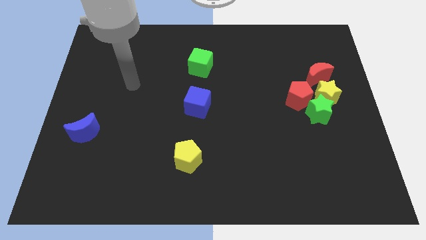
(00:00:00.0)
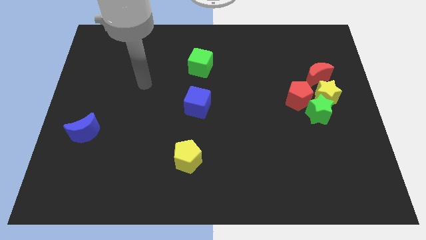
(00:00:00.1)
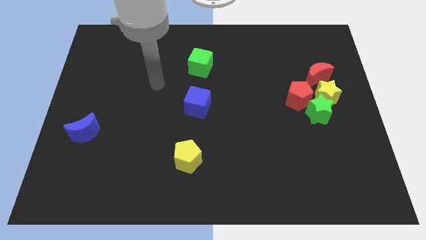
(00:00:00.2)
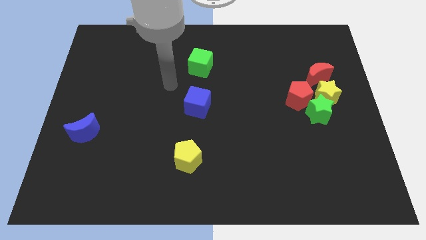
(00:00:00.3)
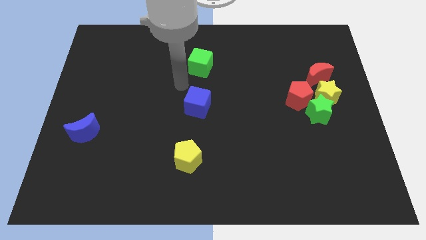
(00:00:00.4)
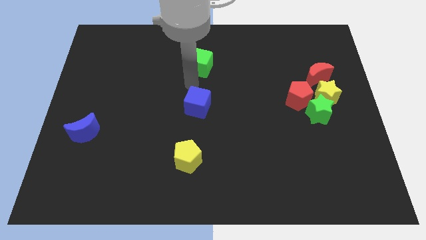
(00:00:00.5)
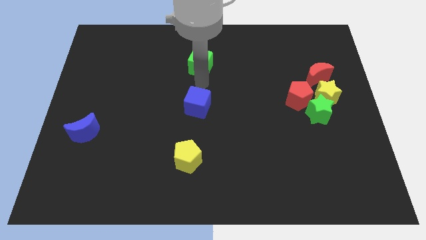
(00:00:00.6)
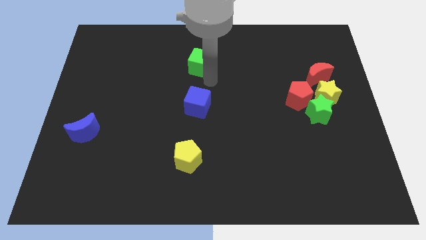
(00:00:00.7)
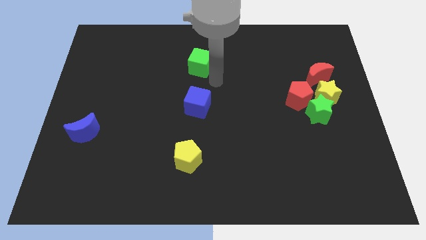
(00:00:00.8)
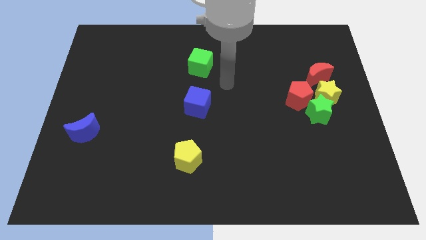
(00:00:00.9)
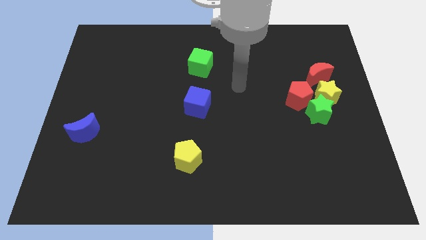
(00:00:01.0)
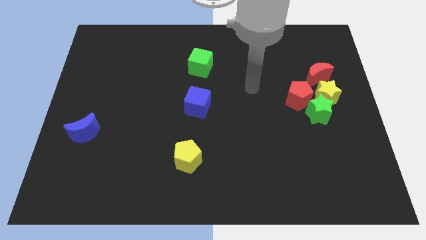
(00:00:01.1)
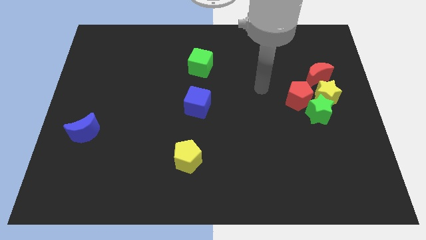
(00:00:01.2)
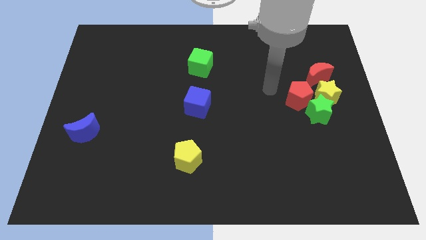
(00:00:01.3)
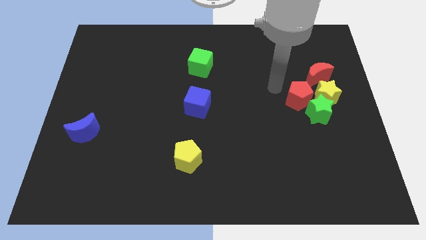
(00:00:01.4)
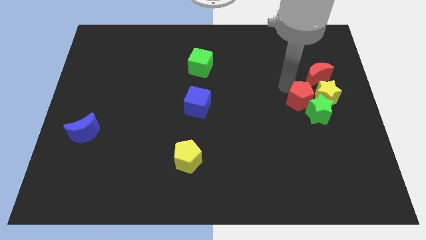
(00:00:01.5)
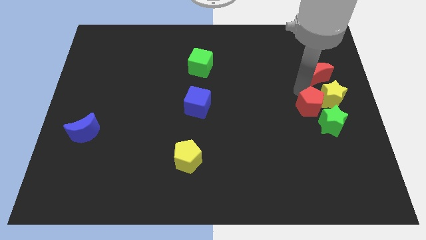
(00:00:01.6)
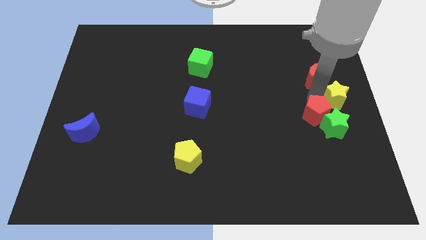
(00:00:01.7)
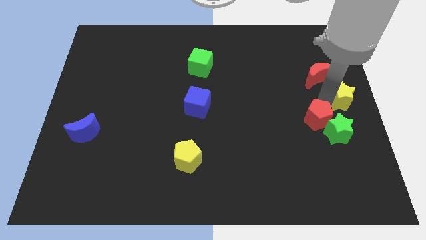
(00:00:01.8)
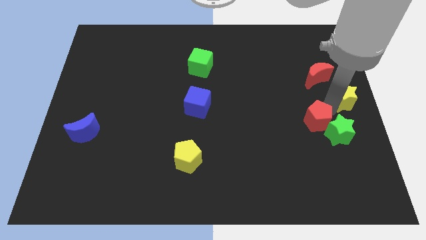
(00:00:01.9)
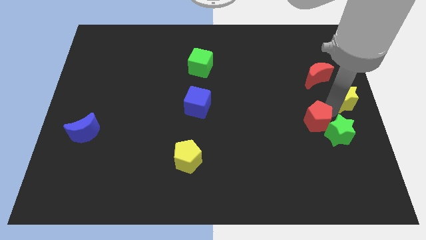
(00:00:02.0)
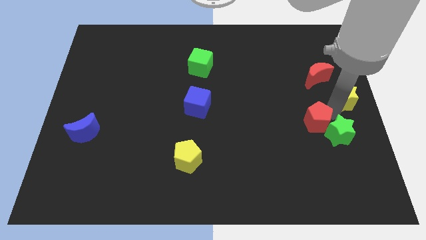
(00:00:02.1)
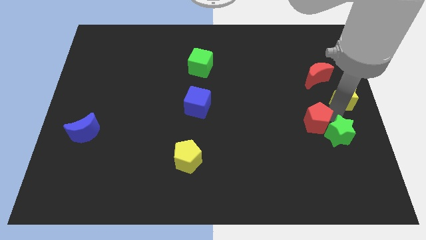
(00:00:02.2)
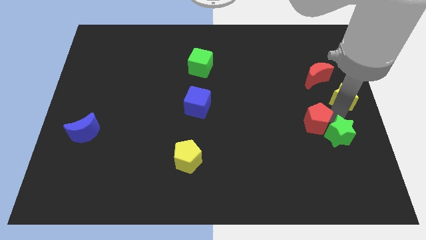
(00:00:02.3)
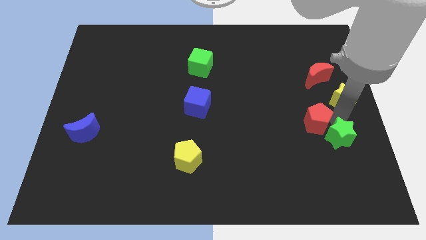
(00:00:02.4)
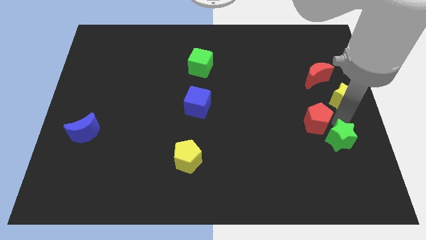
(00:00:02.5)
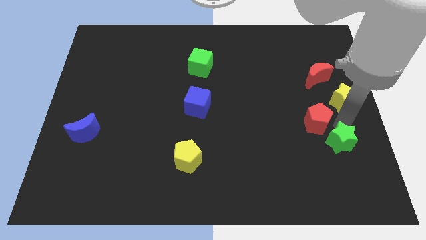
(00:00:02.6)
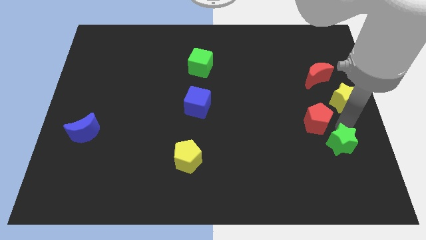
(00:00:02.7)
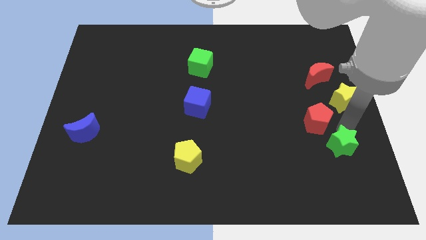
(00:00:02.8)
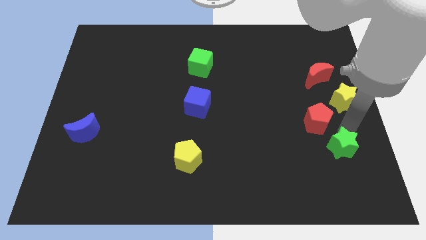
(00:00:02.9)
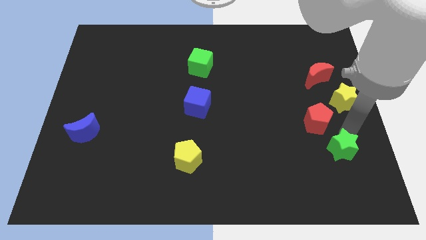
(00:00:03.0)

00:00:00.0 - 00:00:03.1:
pull the green star apart from the yellow star and red pentagon

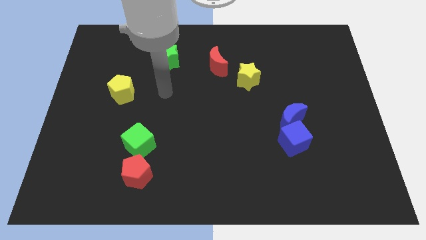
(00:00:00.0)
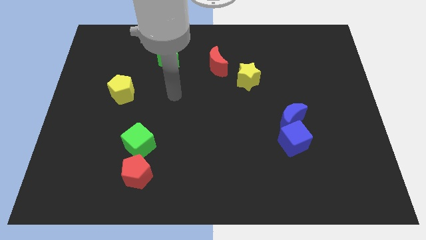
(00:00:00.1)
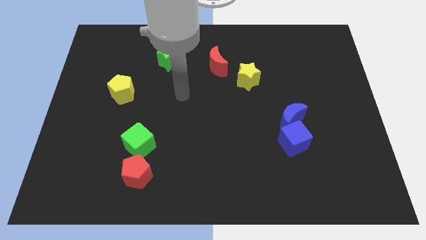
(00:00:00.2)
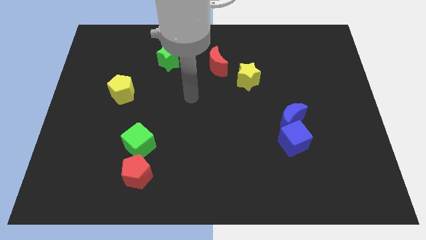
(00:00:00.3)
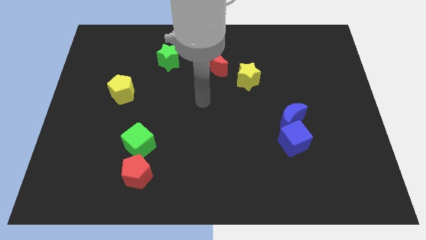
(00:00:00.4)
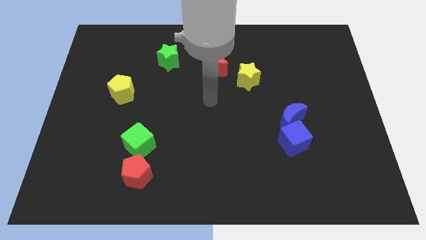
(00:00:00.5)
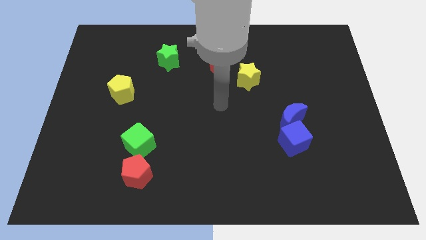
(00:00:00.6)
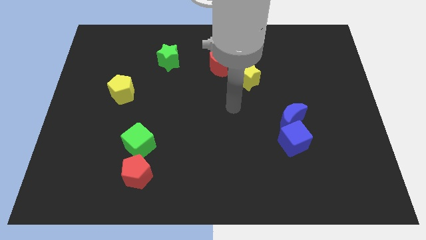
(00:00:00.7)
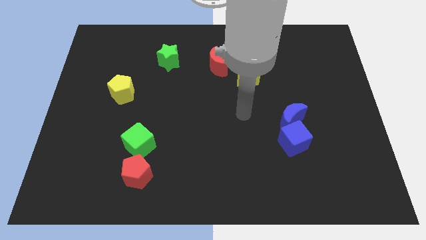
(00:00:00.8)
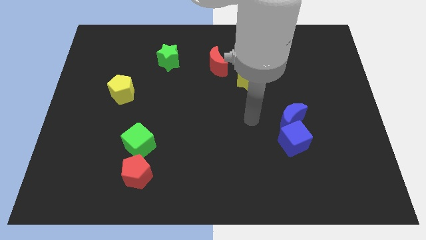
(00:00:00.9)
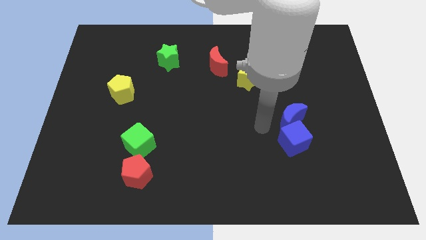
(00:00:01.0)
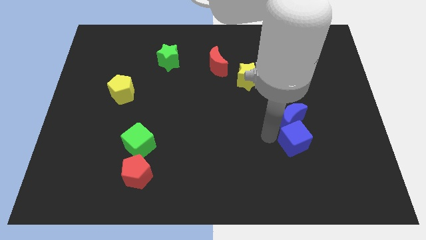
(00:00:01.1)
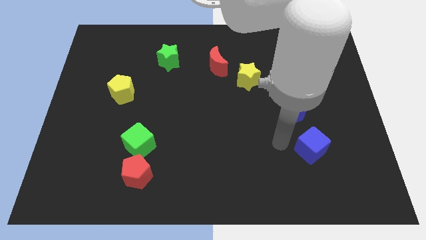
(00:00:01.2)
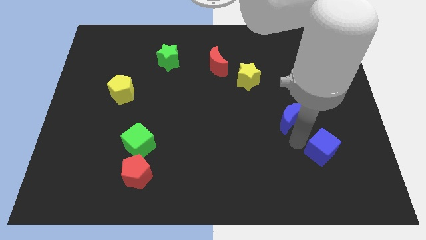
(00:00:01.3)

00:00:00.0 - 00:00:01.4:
separate the blue moon from the blue cube

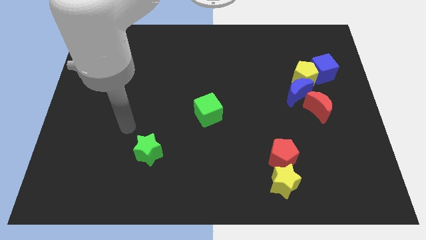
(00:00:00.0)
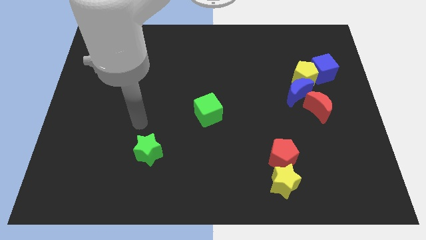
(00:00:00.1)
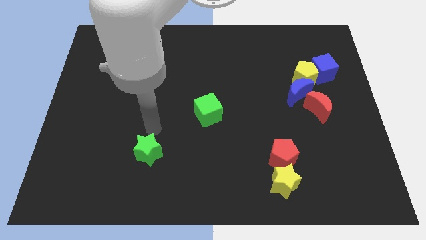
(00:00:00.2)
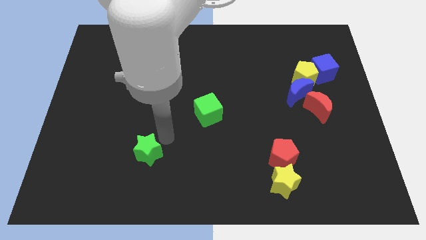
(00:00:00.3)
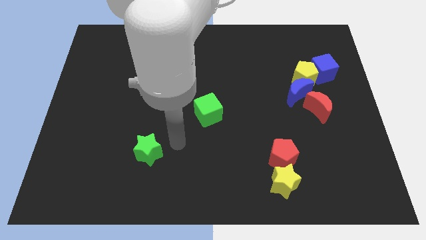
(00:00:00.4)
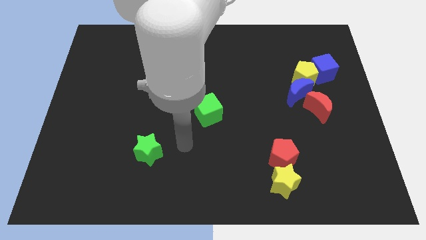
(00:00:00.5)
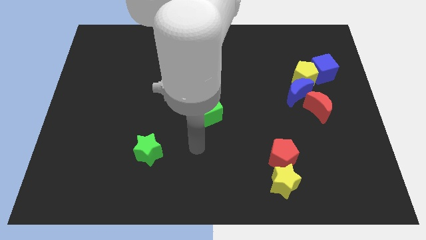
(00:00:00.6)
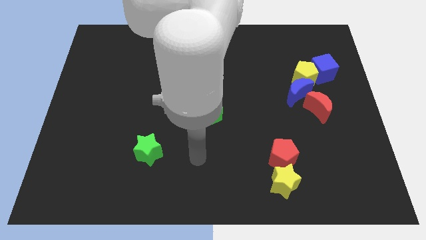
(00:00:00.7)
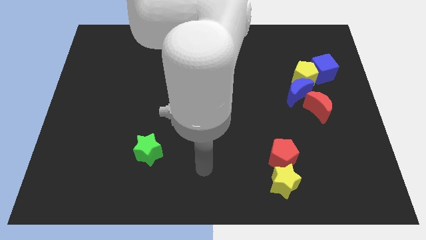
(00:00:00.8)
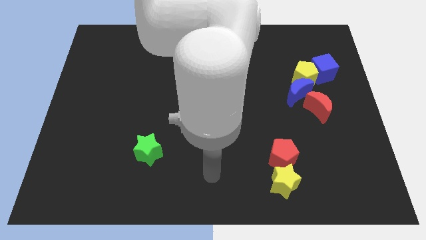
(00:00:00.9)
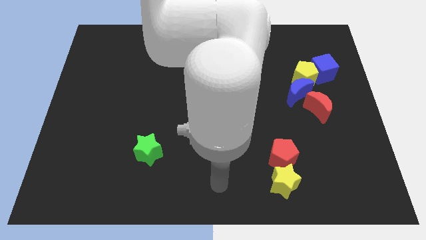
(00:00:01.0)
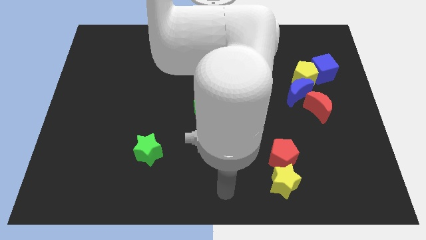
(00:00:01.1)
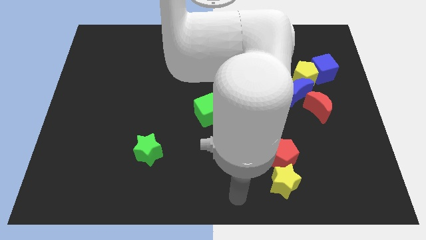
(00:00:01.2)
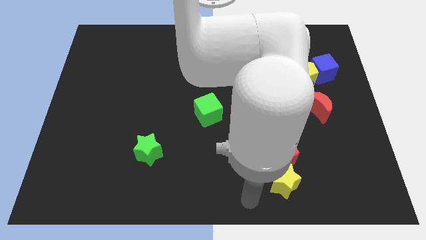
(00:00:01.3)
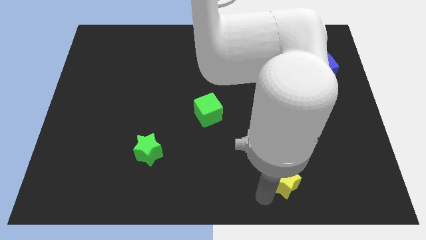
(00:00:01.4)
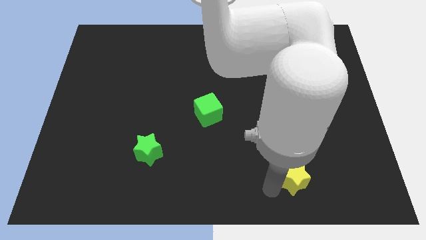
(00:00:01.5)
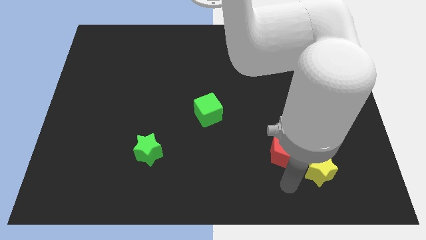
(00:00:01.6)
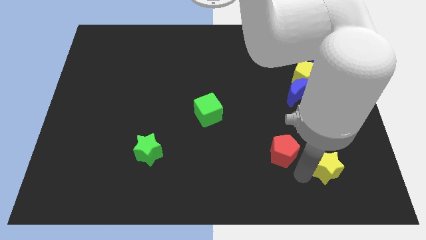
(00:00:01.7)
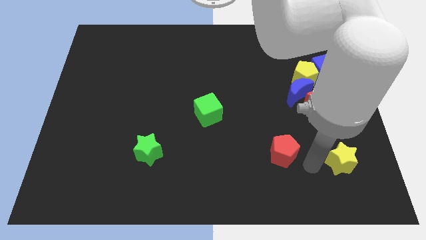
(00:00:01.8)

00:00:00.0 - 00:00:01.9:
pull the red pentagon apart from the yellow star

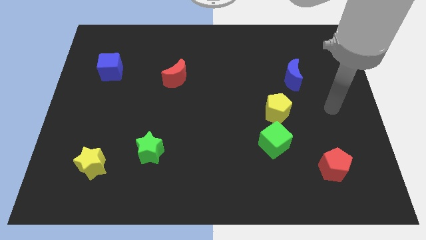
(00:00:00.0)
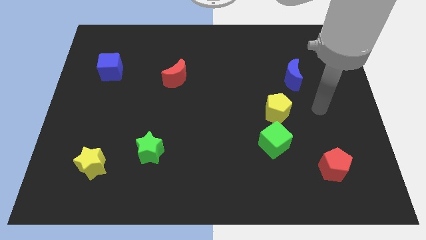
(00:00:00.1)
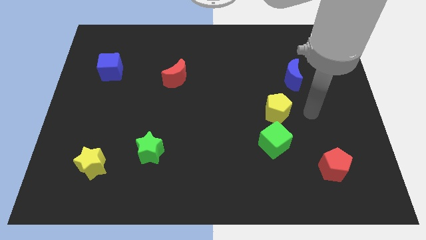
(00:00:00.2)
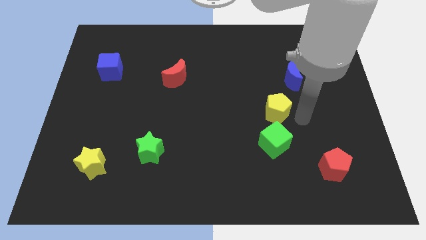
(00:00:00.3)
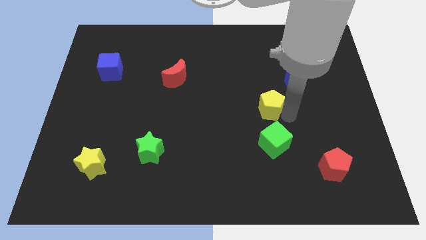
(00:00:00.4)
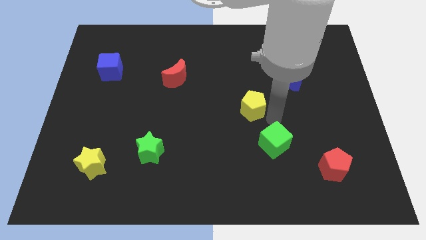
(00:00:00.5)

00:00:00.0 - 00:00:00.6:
separate the green cube from the yellow pentagon

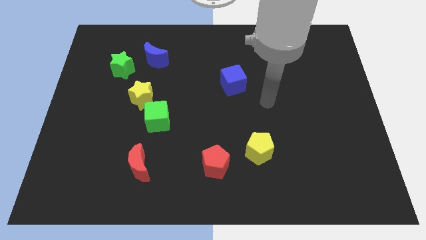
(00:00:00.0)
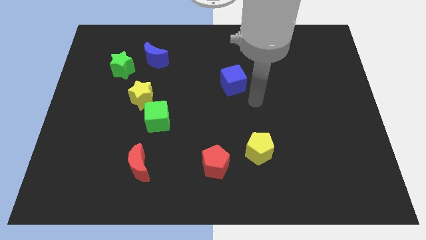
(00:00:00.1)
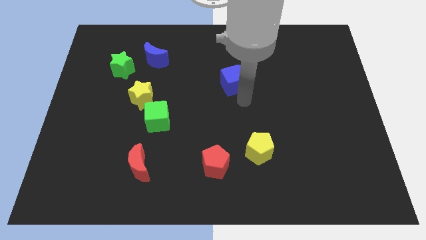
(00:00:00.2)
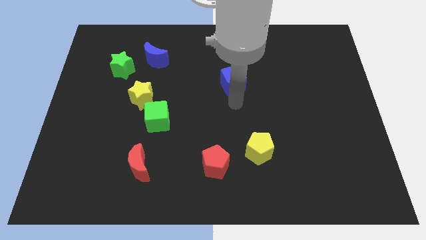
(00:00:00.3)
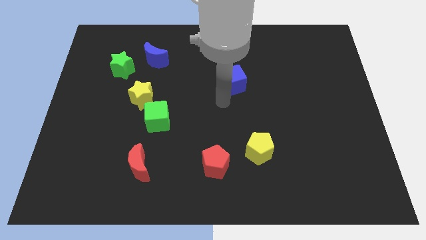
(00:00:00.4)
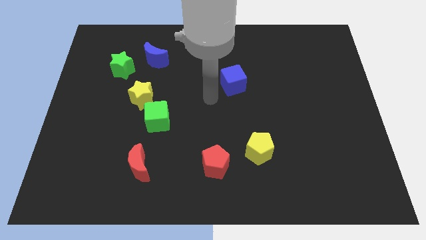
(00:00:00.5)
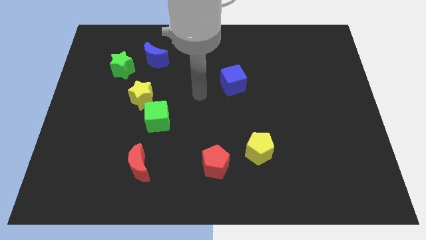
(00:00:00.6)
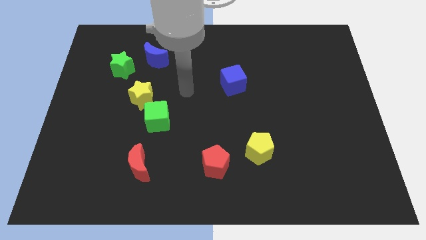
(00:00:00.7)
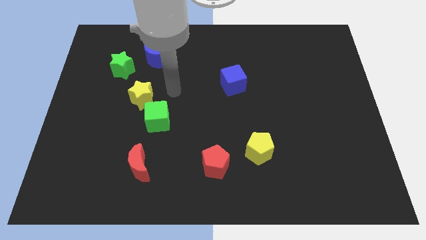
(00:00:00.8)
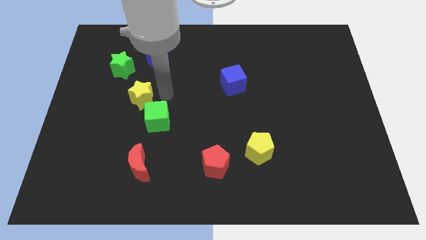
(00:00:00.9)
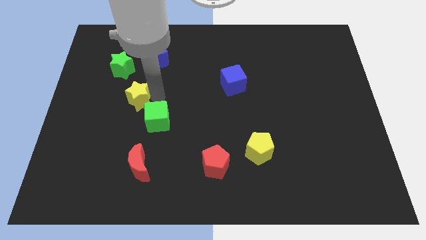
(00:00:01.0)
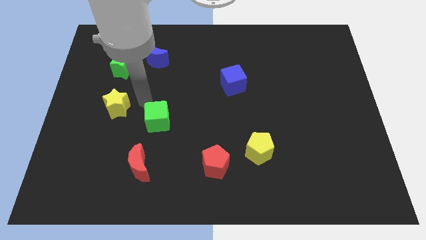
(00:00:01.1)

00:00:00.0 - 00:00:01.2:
move the green cube away from the yellow star

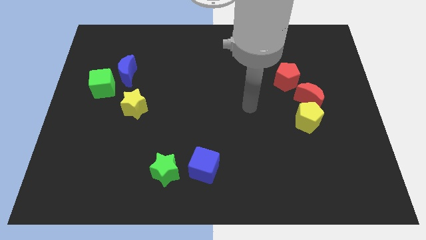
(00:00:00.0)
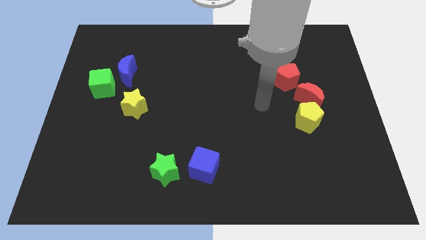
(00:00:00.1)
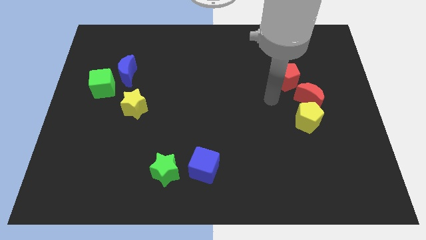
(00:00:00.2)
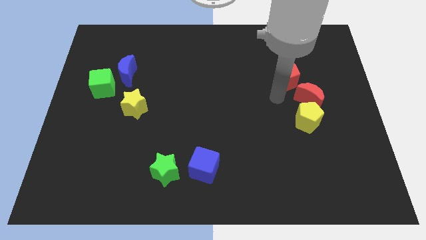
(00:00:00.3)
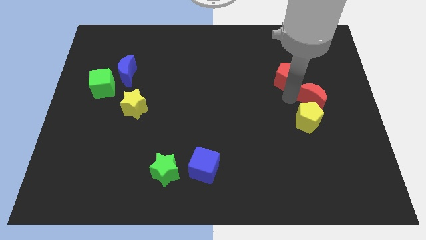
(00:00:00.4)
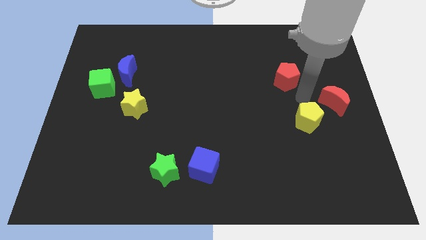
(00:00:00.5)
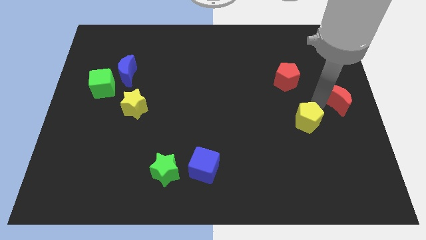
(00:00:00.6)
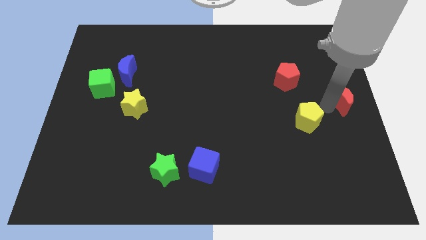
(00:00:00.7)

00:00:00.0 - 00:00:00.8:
move the yellow pentagon away from the red moon

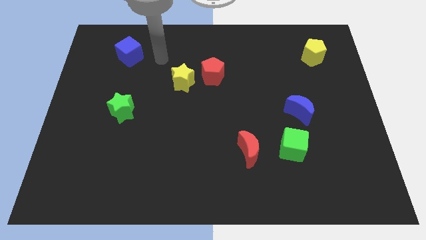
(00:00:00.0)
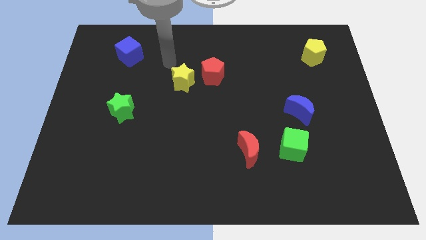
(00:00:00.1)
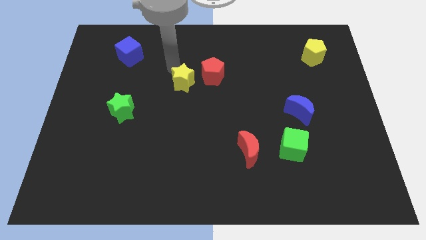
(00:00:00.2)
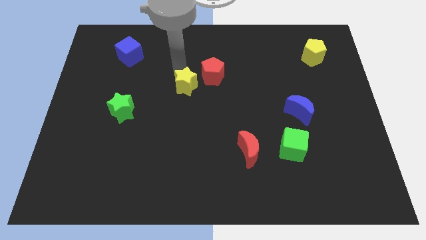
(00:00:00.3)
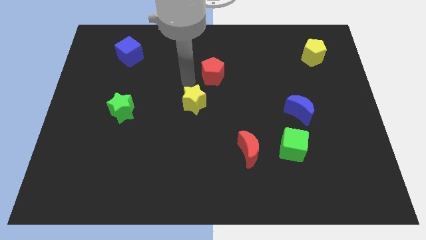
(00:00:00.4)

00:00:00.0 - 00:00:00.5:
separate the red pentagon from the yellow star
